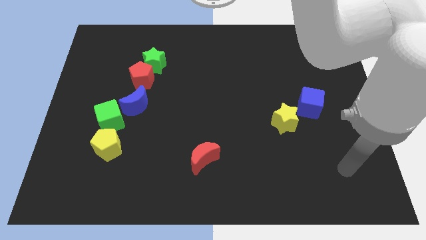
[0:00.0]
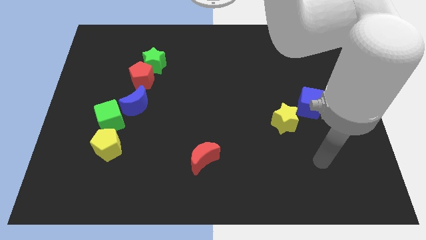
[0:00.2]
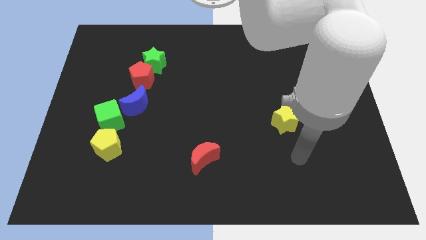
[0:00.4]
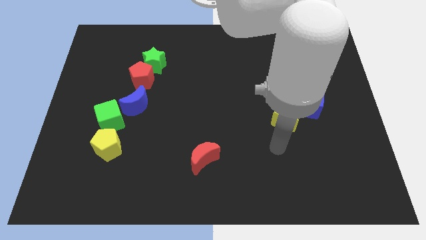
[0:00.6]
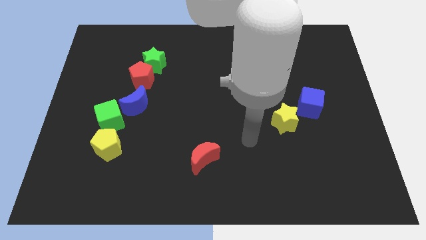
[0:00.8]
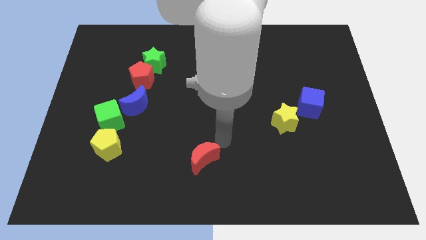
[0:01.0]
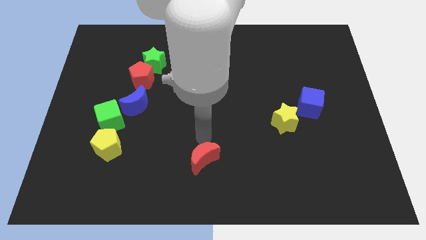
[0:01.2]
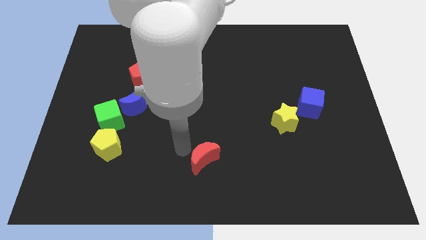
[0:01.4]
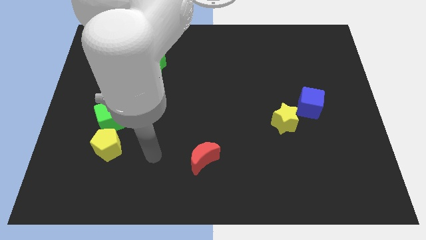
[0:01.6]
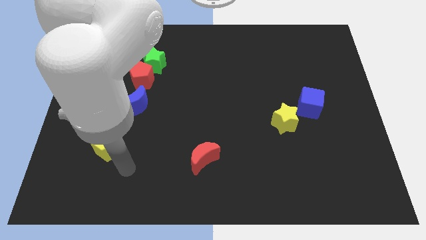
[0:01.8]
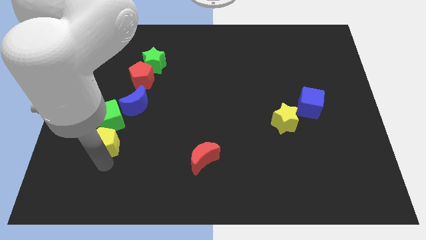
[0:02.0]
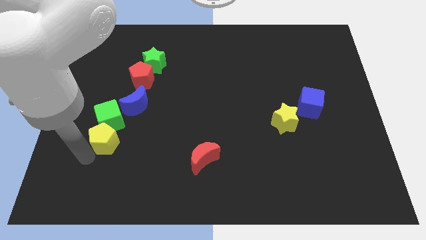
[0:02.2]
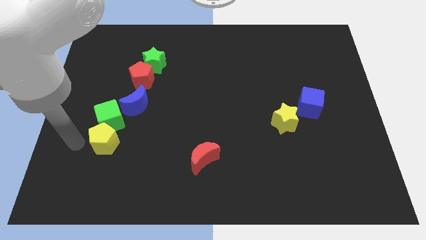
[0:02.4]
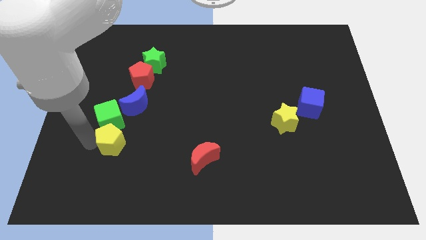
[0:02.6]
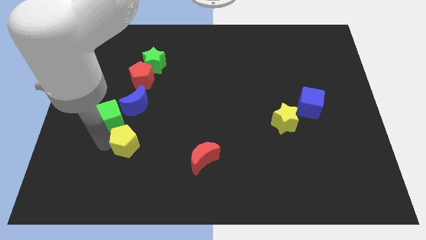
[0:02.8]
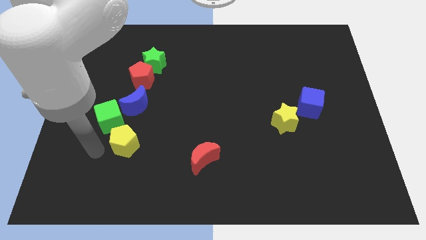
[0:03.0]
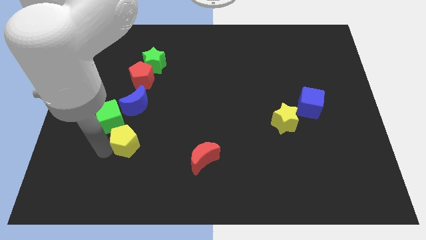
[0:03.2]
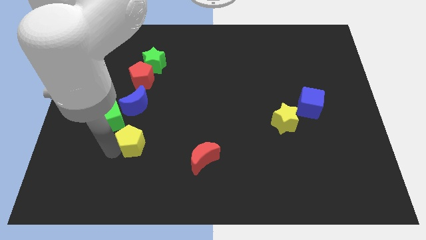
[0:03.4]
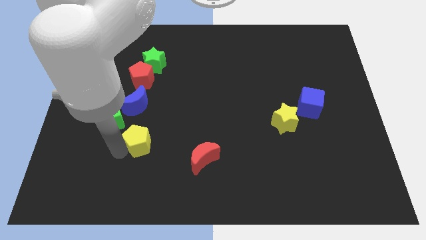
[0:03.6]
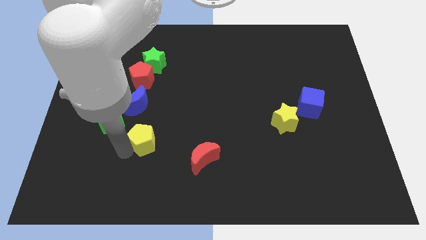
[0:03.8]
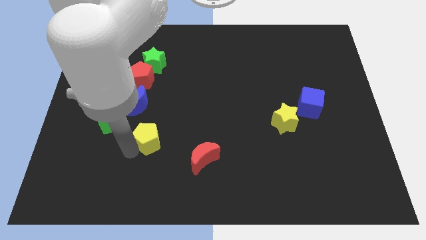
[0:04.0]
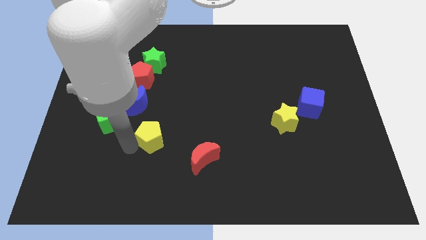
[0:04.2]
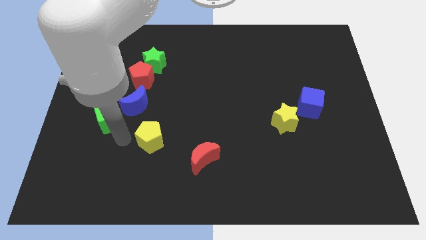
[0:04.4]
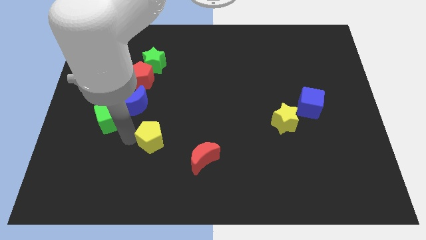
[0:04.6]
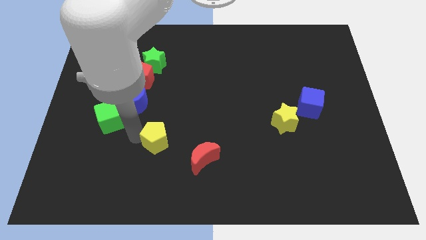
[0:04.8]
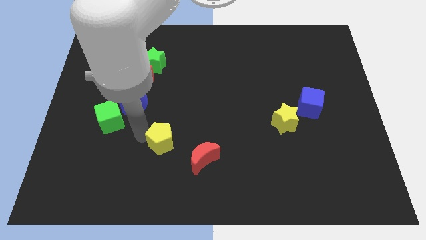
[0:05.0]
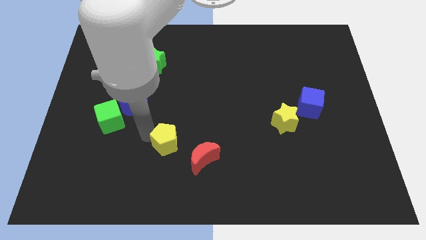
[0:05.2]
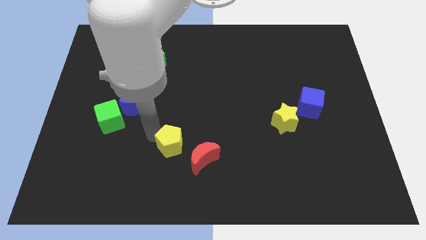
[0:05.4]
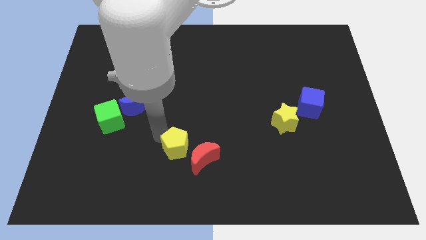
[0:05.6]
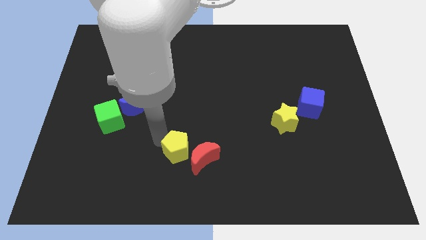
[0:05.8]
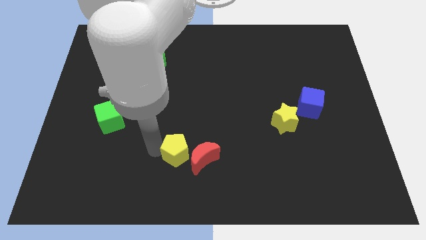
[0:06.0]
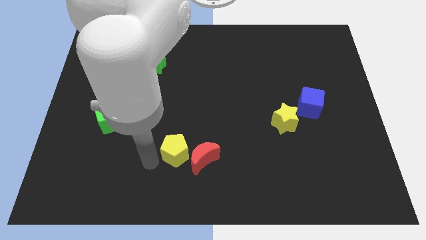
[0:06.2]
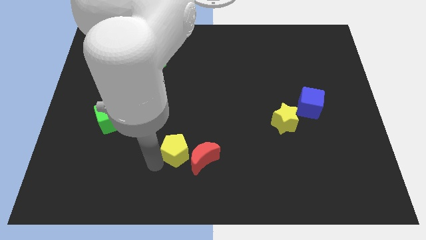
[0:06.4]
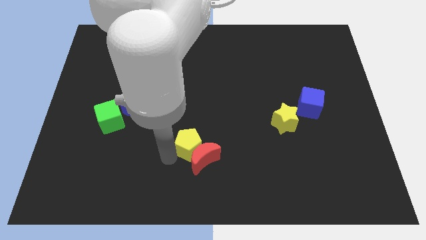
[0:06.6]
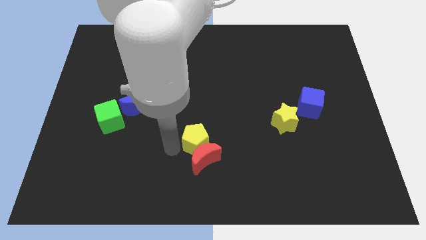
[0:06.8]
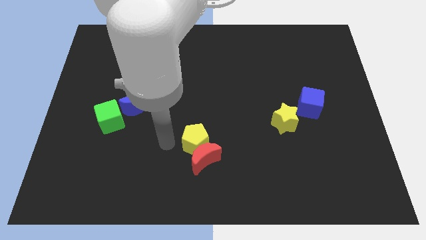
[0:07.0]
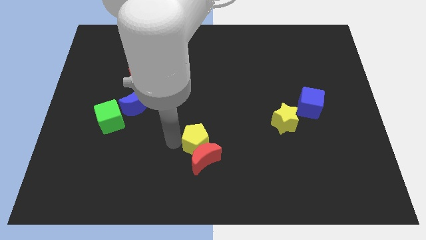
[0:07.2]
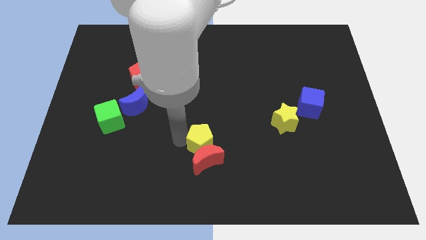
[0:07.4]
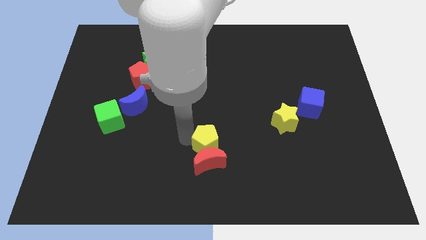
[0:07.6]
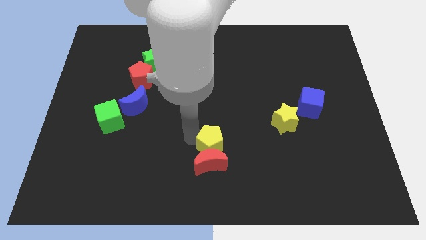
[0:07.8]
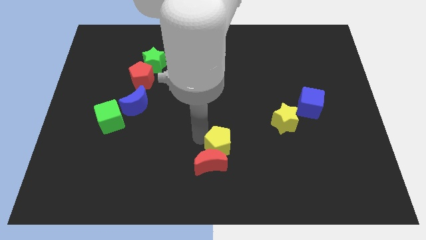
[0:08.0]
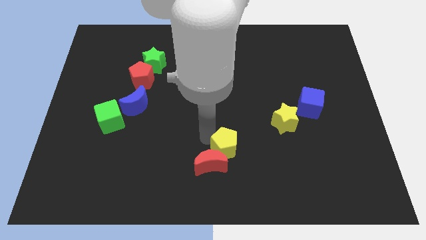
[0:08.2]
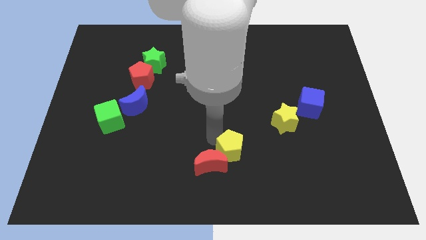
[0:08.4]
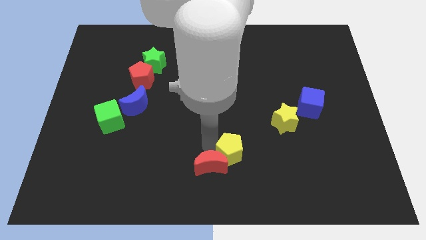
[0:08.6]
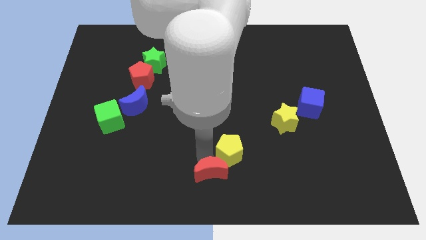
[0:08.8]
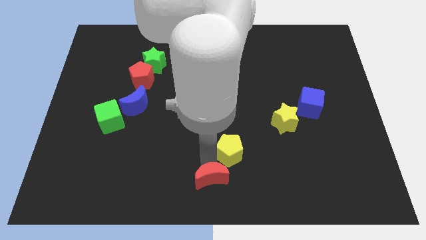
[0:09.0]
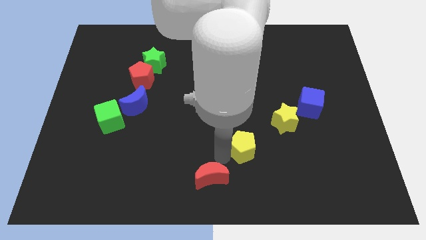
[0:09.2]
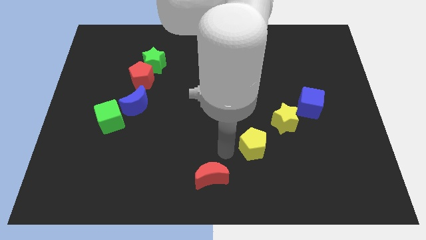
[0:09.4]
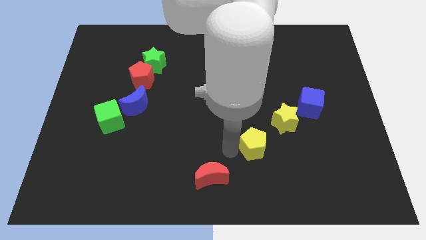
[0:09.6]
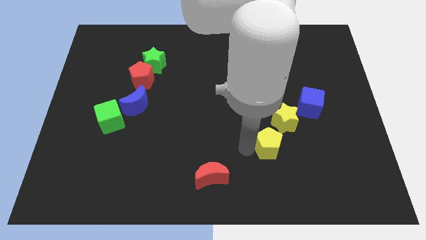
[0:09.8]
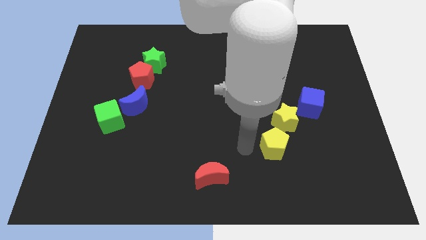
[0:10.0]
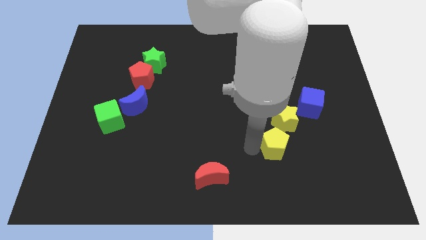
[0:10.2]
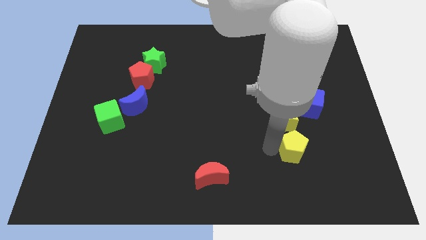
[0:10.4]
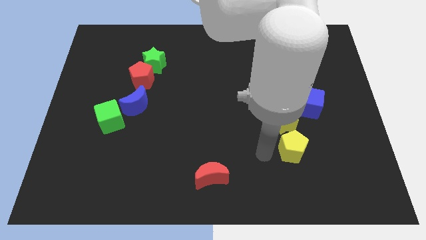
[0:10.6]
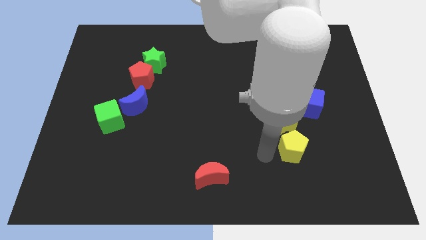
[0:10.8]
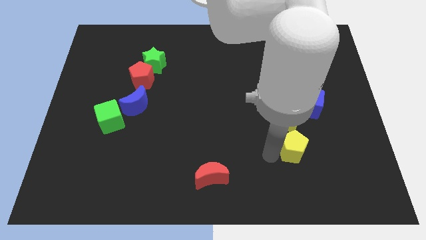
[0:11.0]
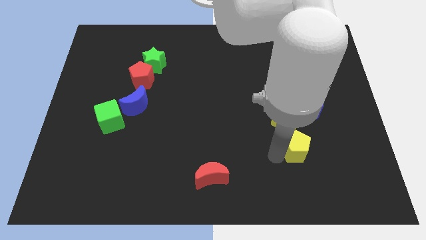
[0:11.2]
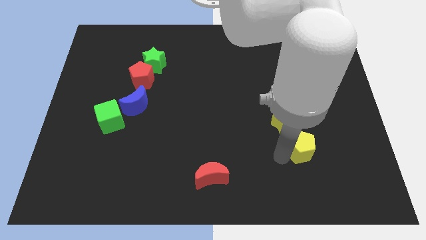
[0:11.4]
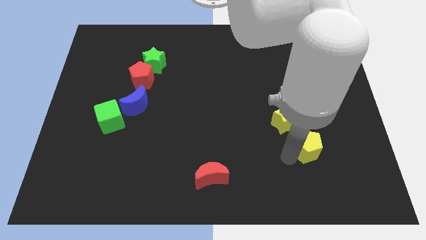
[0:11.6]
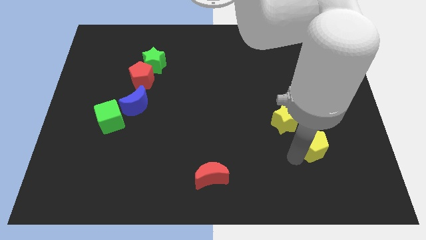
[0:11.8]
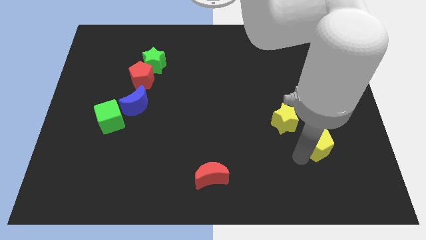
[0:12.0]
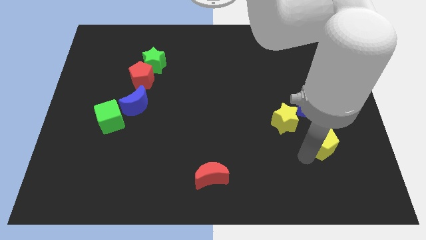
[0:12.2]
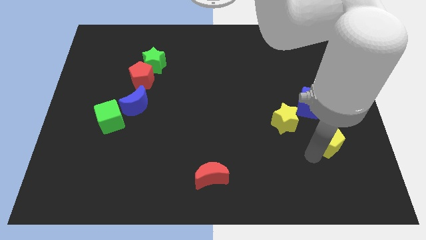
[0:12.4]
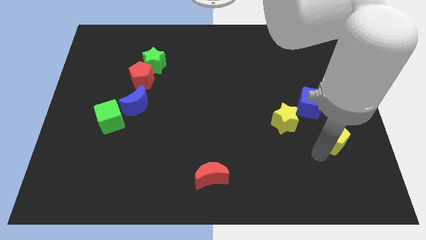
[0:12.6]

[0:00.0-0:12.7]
put the yellow pentagon to the right side of the yellow star

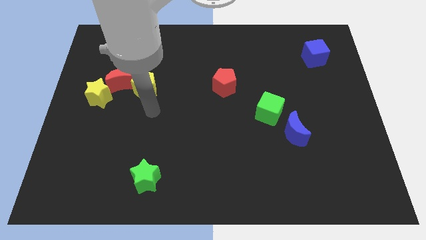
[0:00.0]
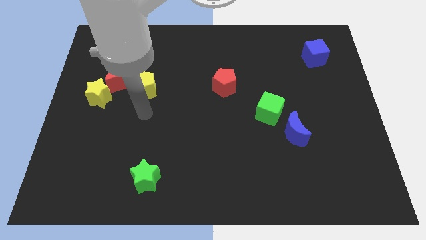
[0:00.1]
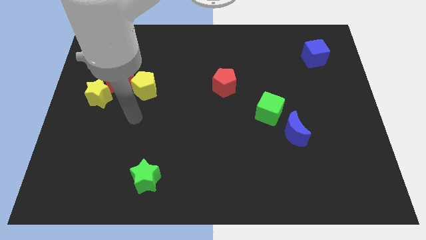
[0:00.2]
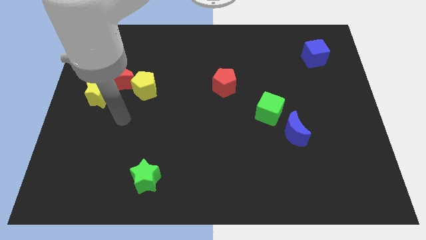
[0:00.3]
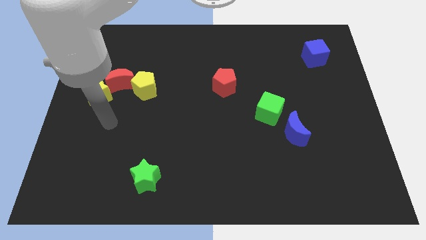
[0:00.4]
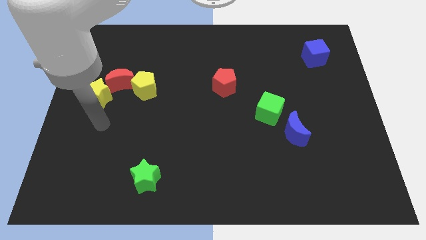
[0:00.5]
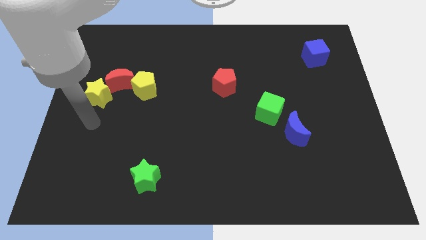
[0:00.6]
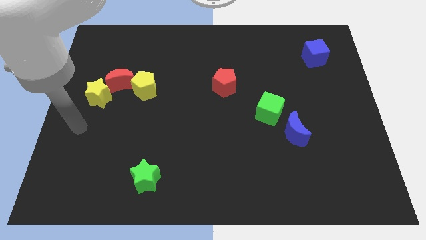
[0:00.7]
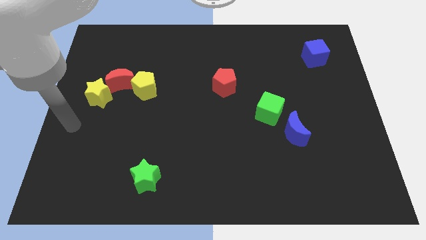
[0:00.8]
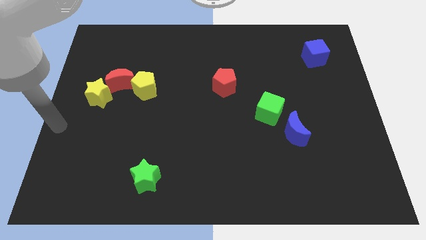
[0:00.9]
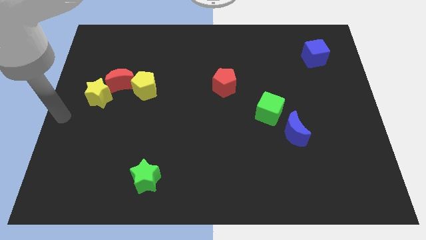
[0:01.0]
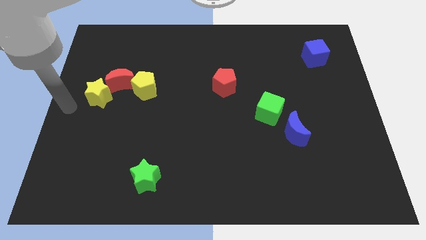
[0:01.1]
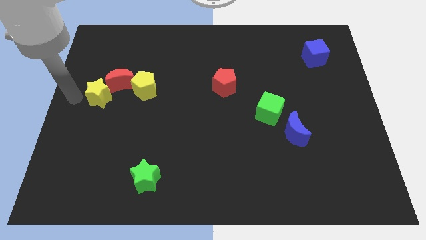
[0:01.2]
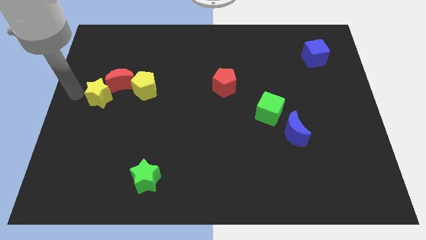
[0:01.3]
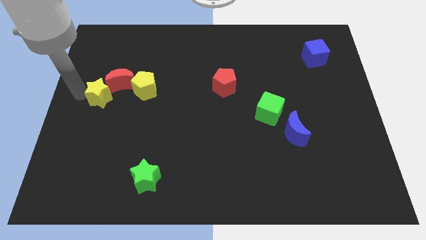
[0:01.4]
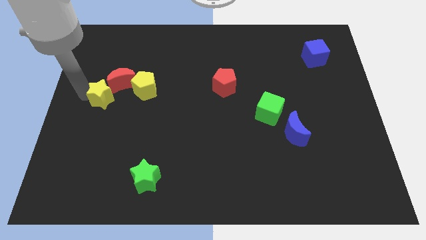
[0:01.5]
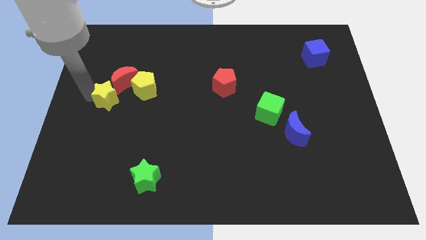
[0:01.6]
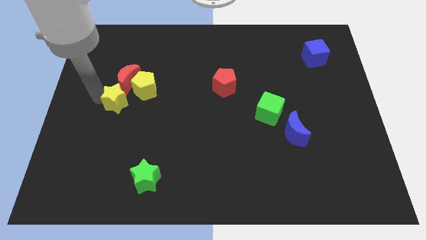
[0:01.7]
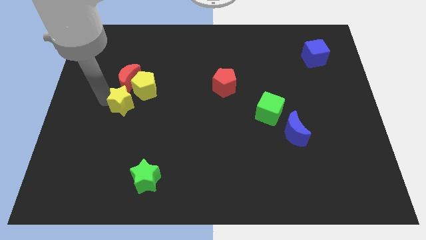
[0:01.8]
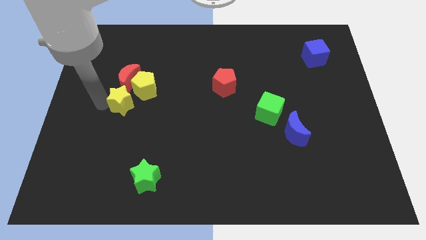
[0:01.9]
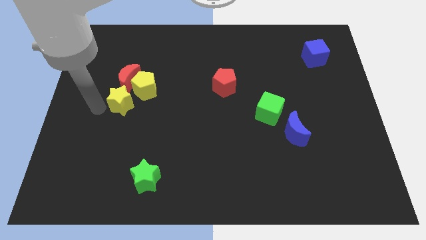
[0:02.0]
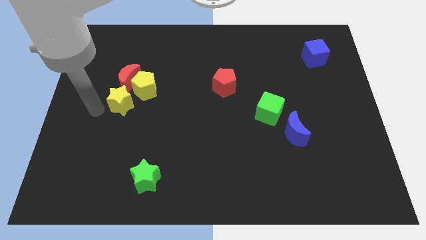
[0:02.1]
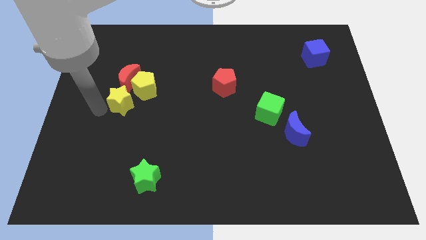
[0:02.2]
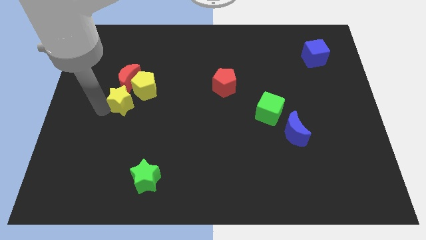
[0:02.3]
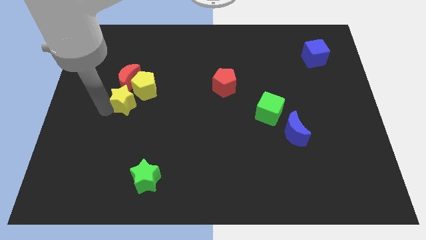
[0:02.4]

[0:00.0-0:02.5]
put the yellow star to the bottom right side of the red moon
